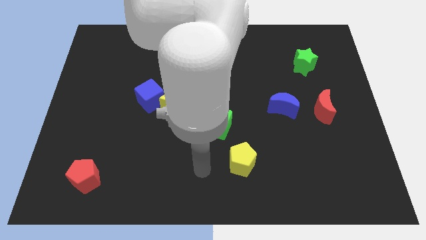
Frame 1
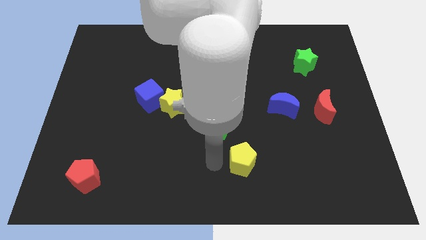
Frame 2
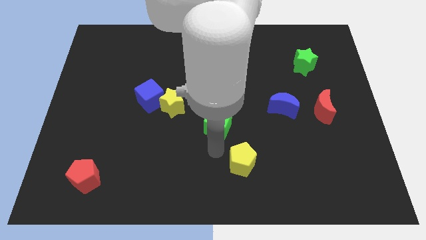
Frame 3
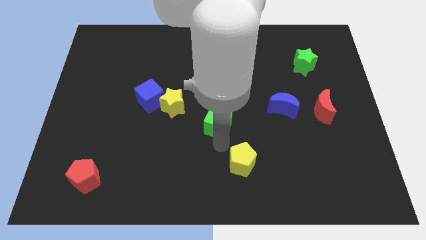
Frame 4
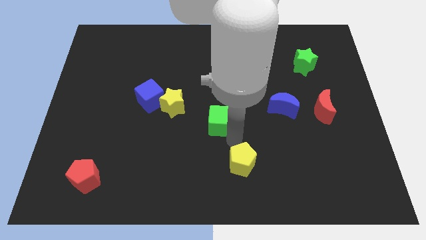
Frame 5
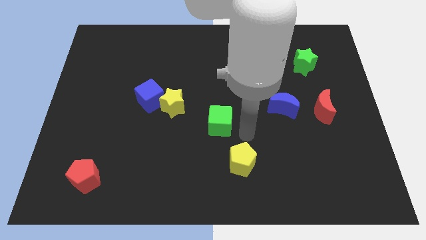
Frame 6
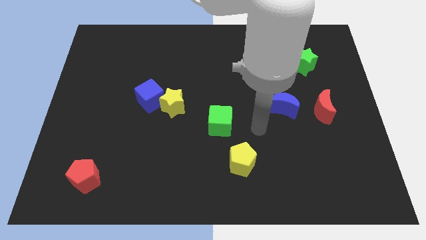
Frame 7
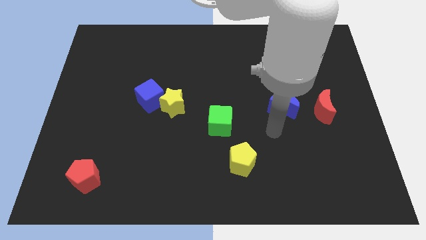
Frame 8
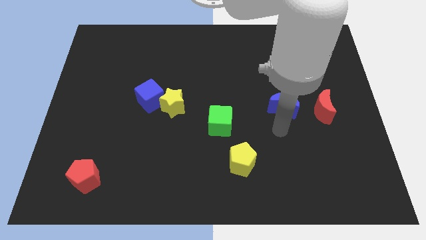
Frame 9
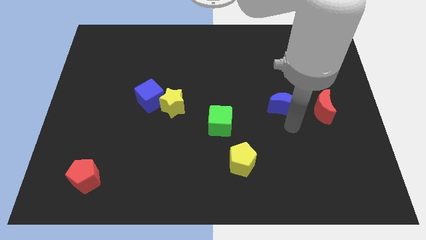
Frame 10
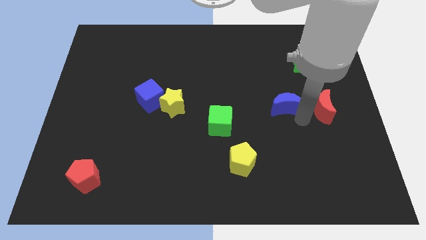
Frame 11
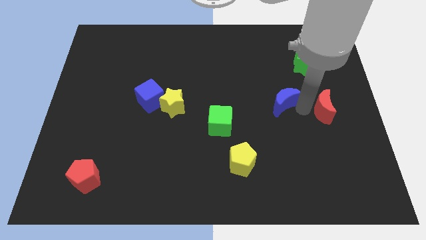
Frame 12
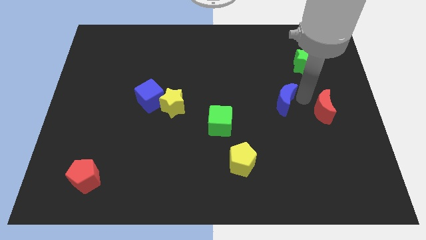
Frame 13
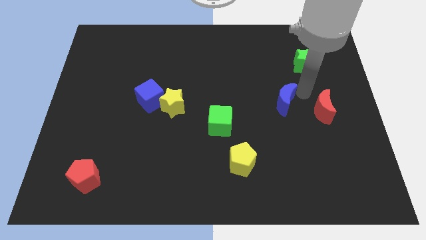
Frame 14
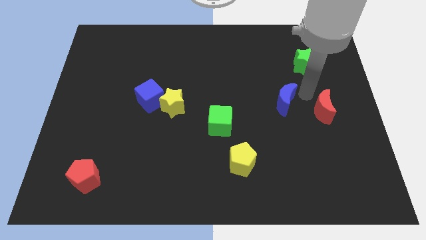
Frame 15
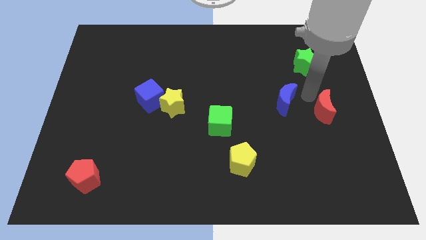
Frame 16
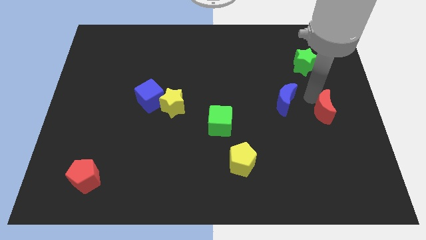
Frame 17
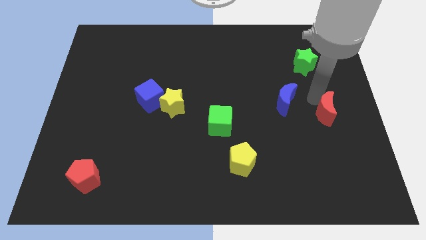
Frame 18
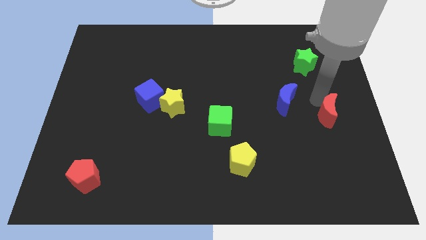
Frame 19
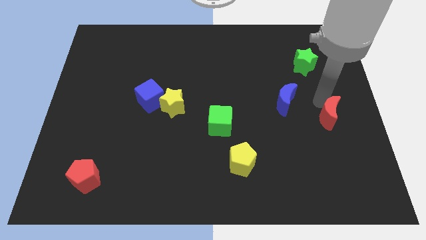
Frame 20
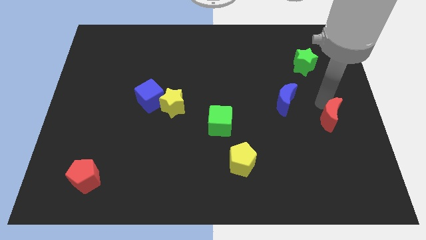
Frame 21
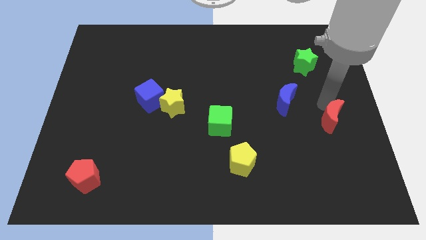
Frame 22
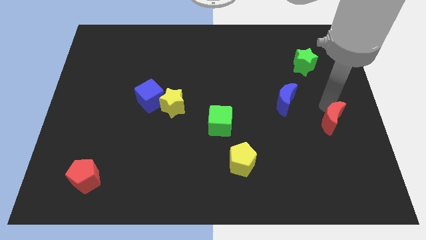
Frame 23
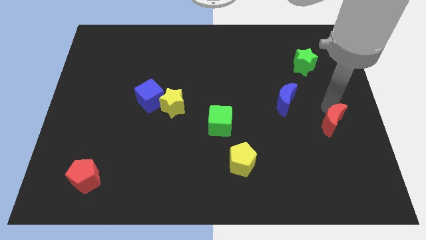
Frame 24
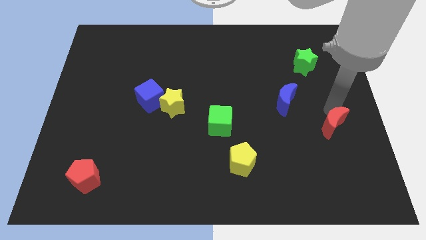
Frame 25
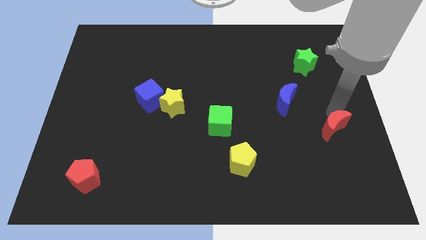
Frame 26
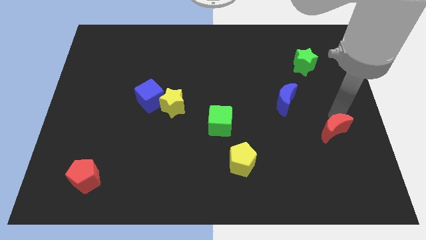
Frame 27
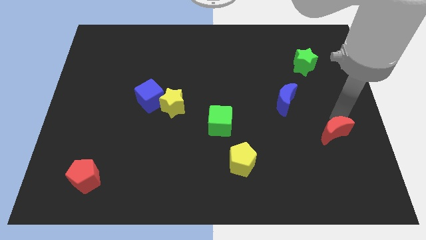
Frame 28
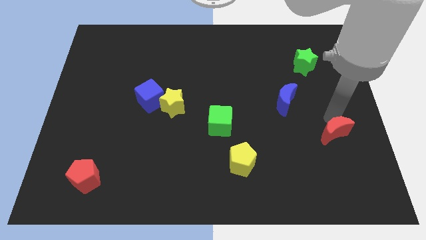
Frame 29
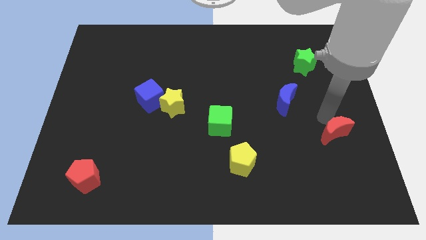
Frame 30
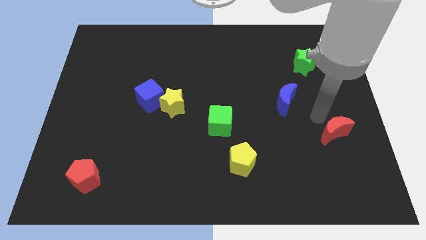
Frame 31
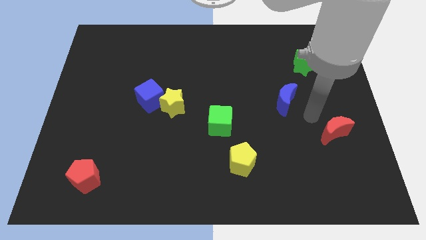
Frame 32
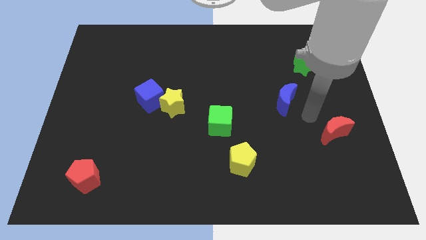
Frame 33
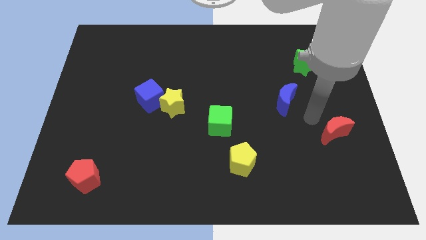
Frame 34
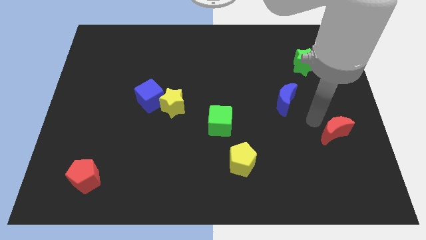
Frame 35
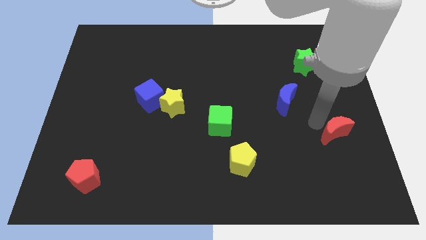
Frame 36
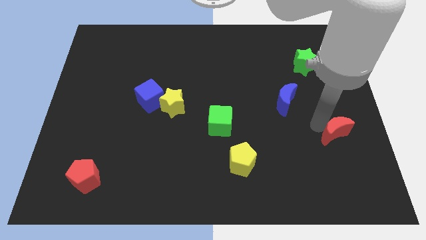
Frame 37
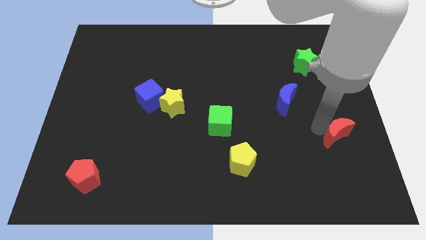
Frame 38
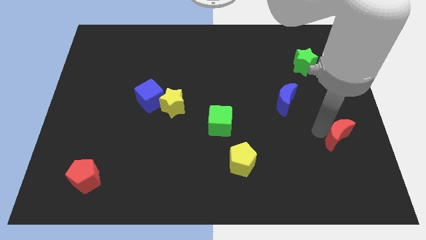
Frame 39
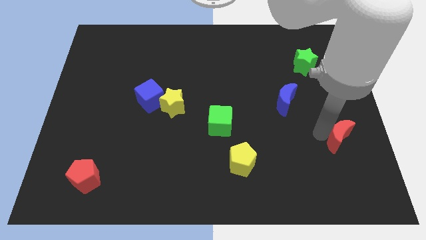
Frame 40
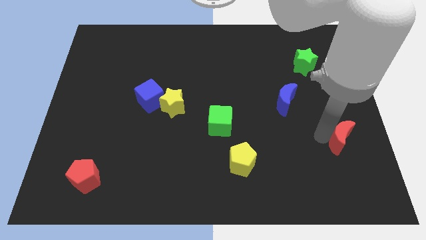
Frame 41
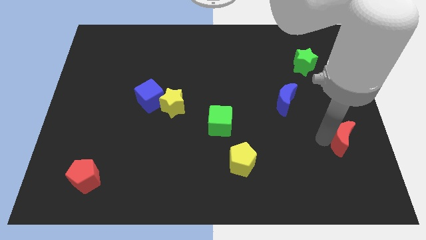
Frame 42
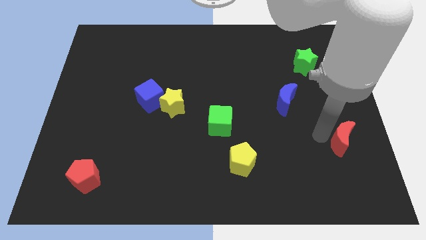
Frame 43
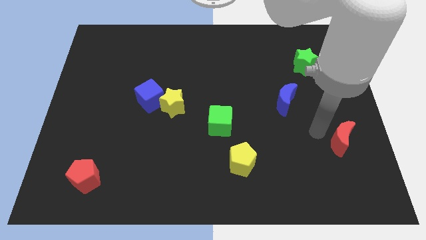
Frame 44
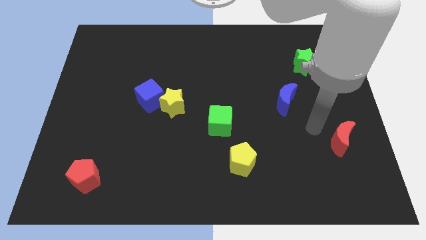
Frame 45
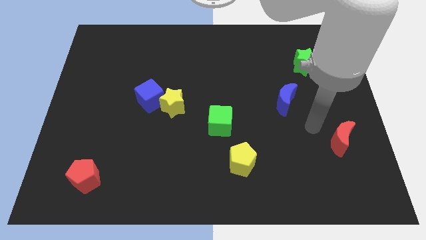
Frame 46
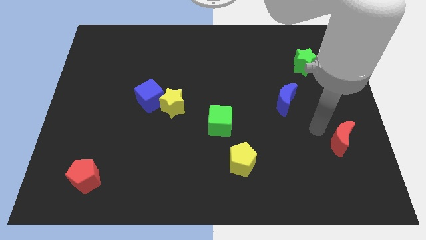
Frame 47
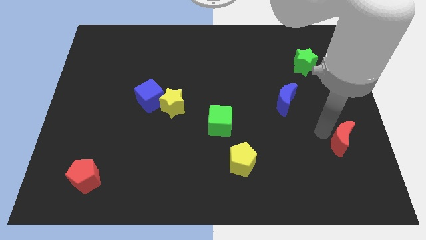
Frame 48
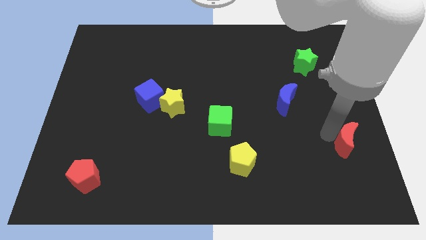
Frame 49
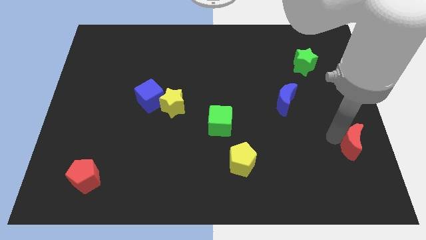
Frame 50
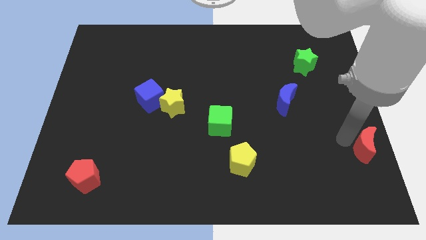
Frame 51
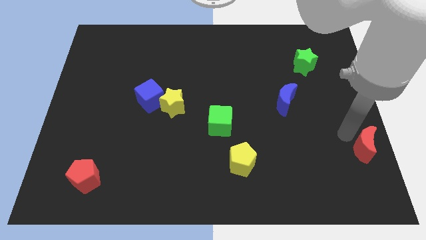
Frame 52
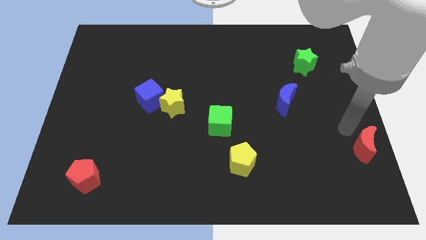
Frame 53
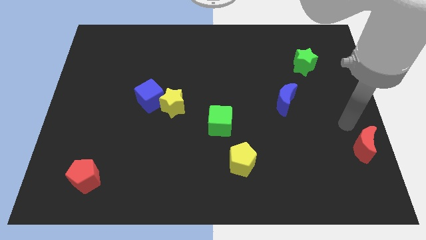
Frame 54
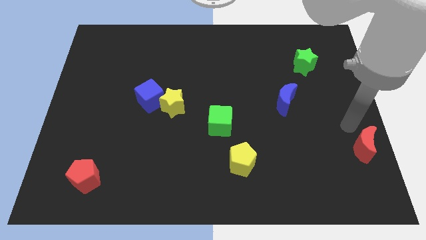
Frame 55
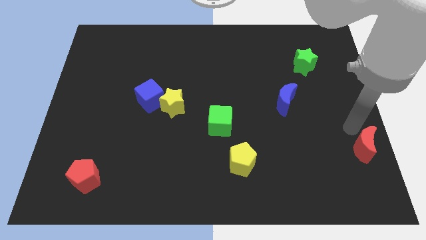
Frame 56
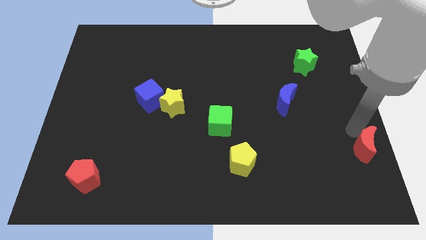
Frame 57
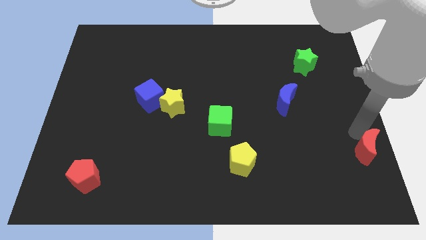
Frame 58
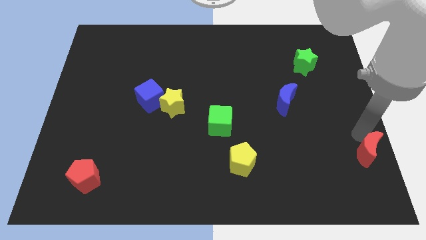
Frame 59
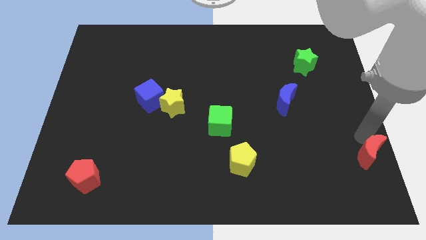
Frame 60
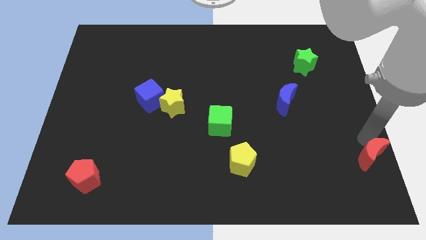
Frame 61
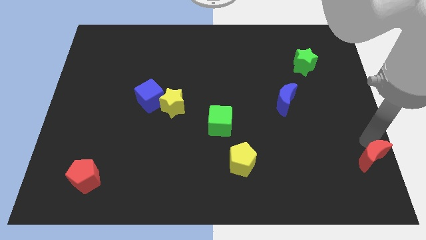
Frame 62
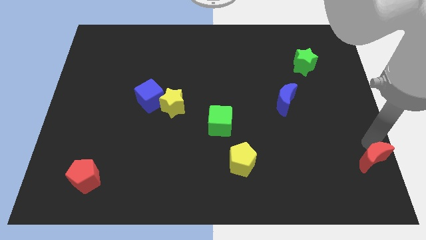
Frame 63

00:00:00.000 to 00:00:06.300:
move the red moon to the lower right corner
